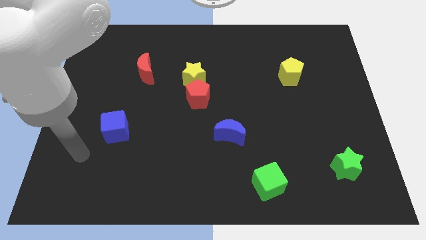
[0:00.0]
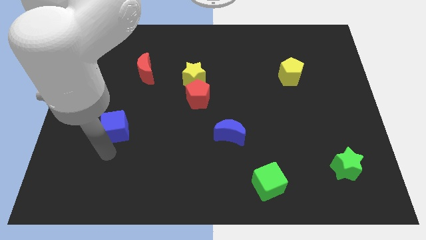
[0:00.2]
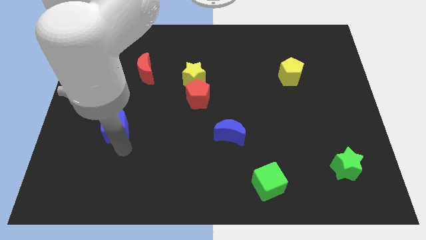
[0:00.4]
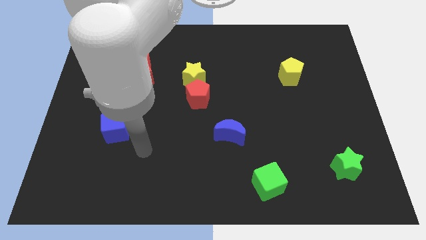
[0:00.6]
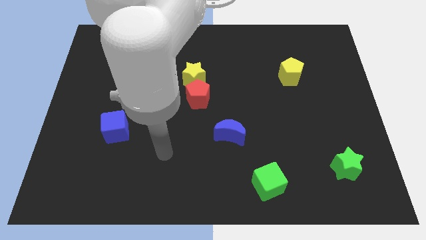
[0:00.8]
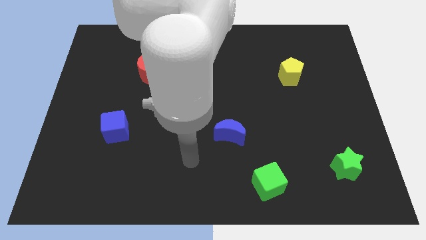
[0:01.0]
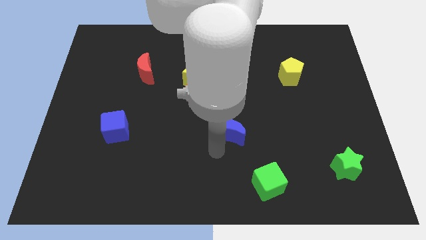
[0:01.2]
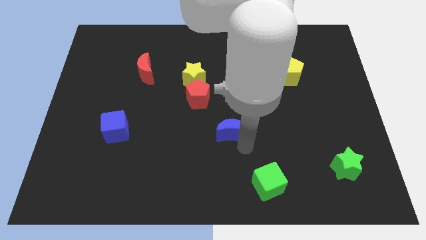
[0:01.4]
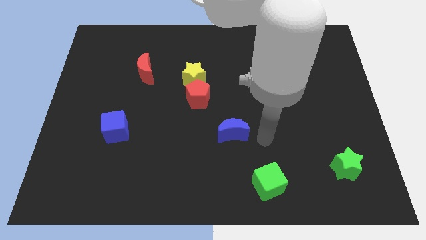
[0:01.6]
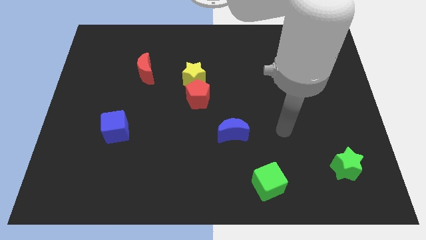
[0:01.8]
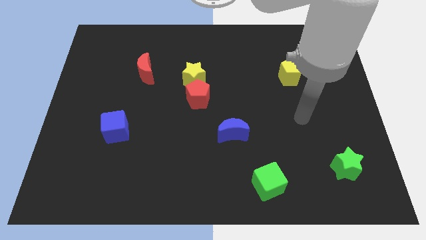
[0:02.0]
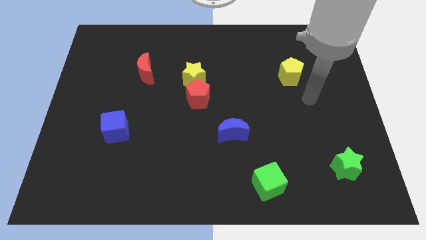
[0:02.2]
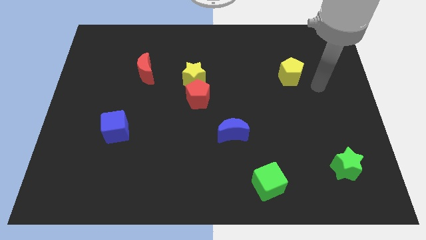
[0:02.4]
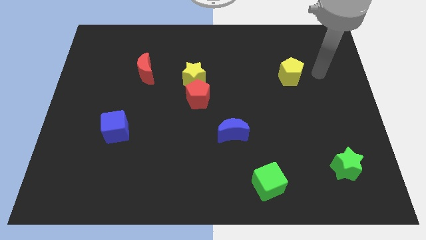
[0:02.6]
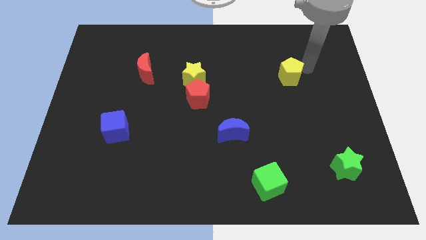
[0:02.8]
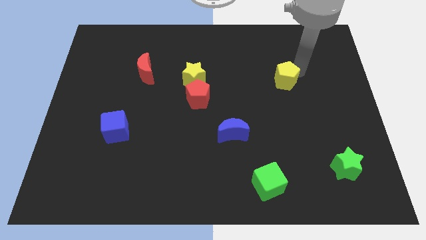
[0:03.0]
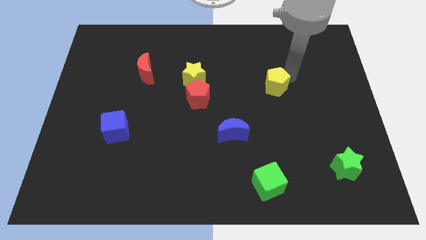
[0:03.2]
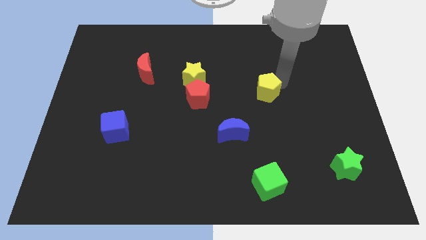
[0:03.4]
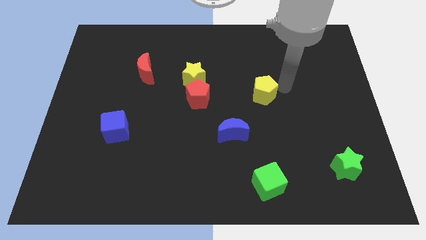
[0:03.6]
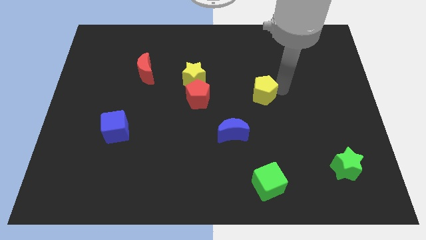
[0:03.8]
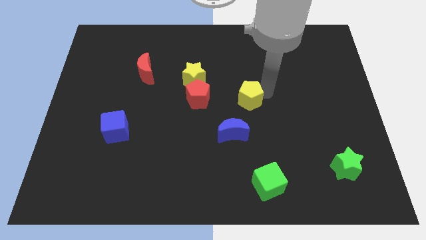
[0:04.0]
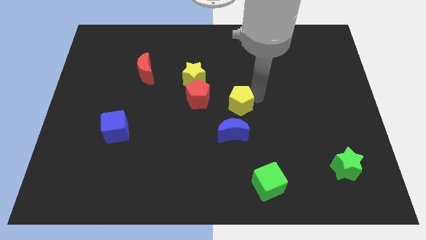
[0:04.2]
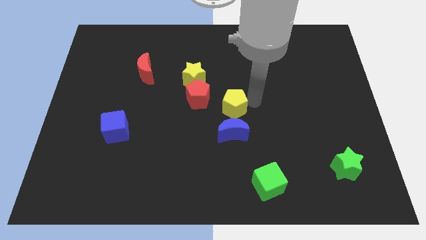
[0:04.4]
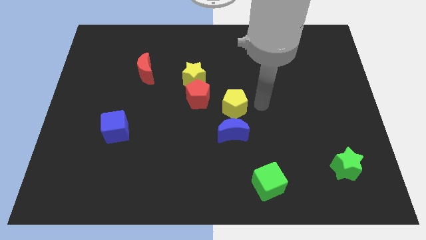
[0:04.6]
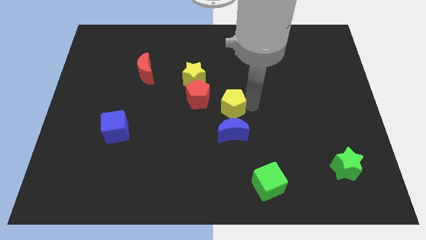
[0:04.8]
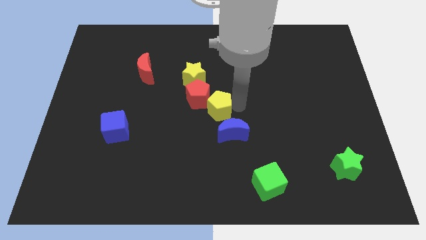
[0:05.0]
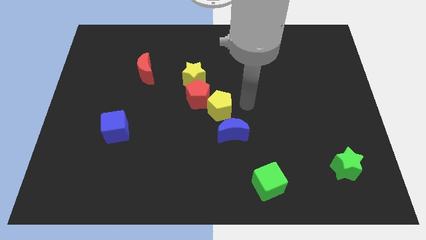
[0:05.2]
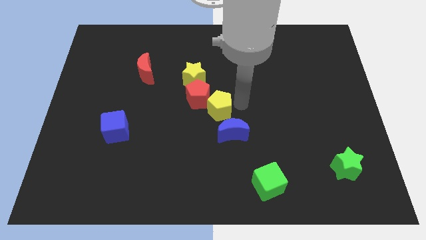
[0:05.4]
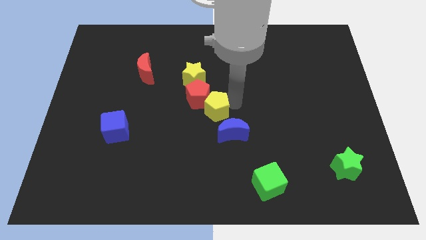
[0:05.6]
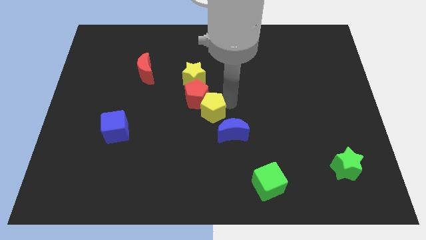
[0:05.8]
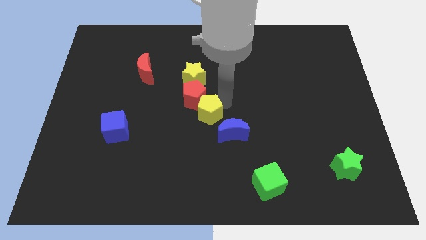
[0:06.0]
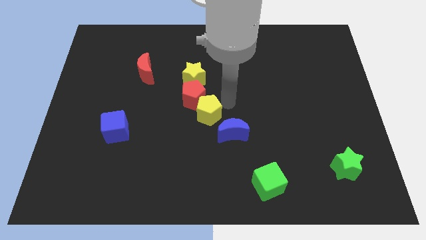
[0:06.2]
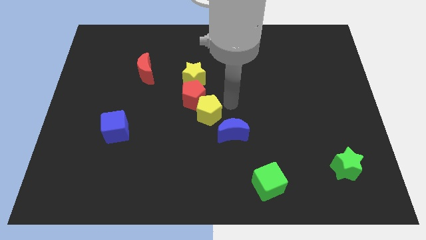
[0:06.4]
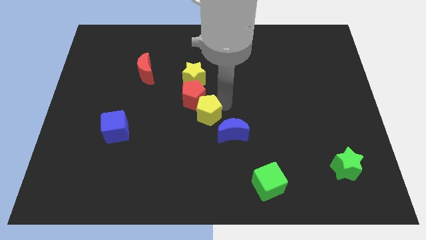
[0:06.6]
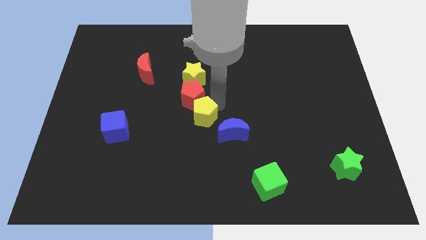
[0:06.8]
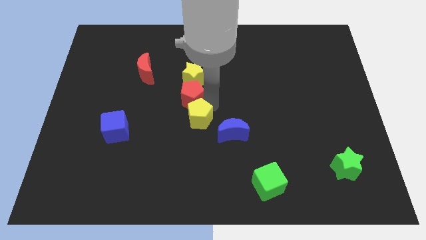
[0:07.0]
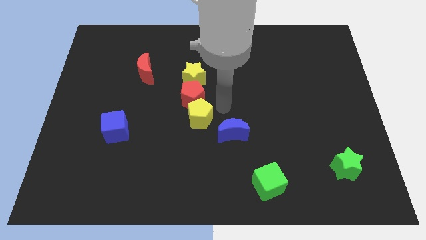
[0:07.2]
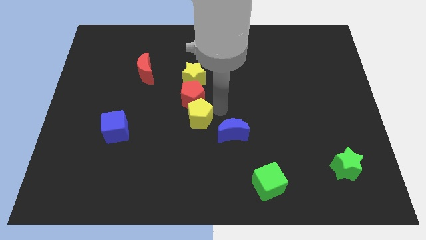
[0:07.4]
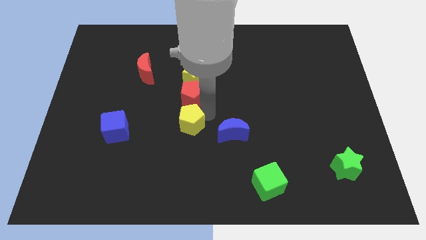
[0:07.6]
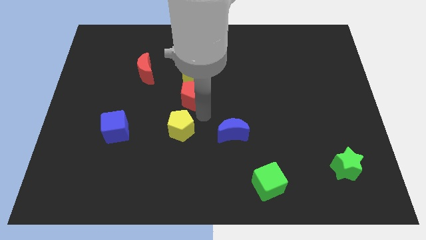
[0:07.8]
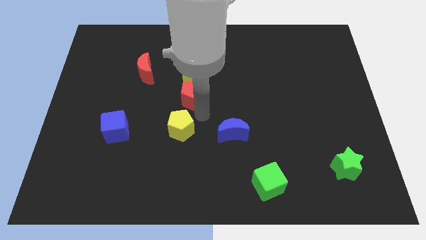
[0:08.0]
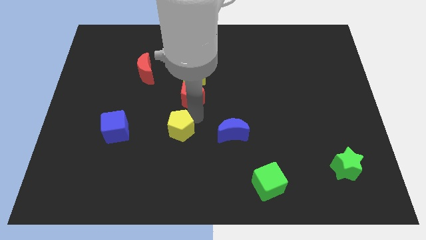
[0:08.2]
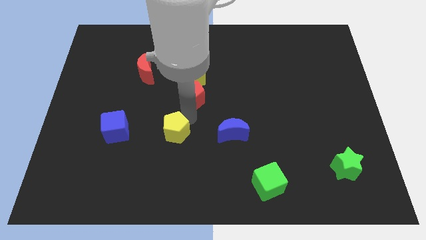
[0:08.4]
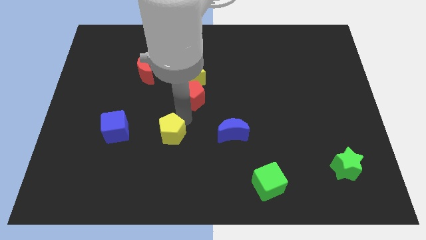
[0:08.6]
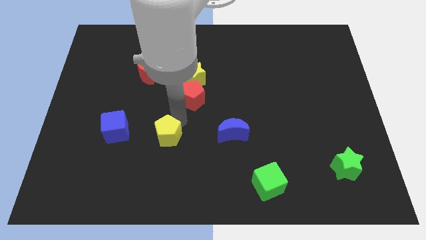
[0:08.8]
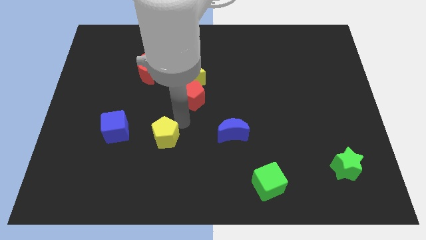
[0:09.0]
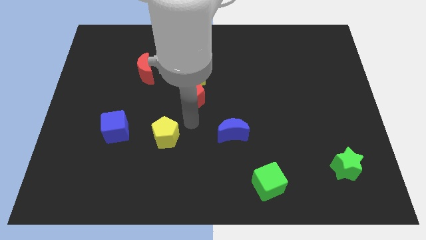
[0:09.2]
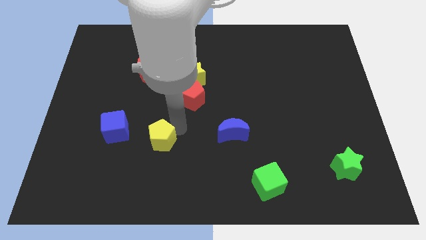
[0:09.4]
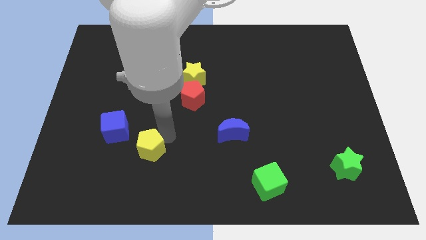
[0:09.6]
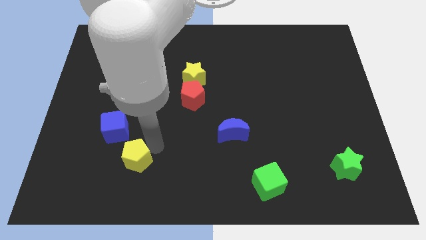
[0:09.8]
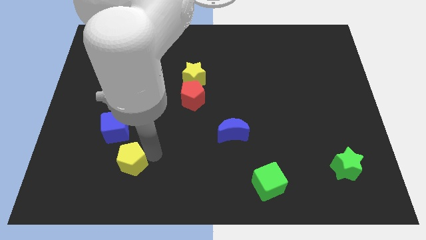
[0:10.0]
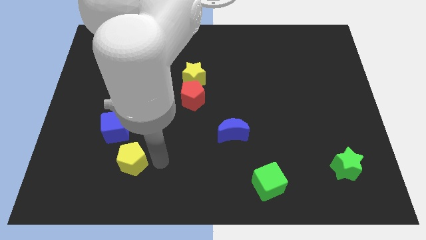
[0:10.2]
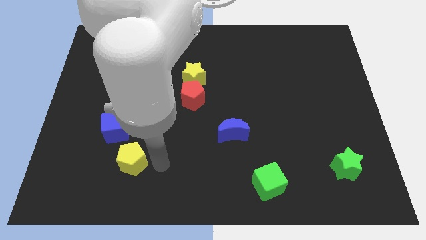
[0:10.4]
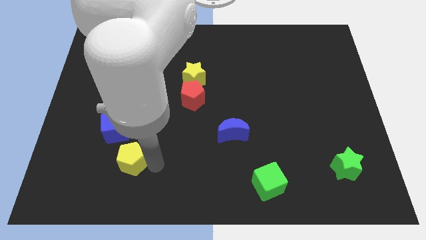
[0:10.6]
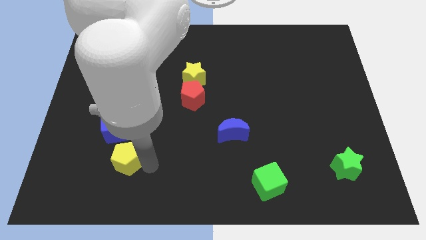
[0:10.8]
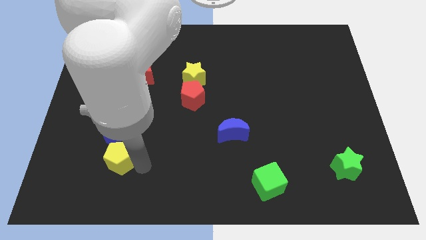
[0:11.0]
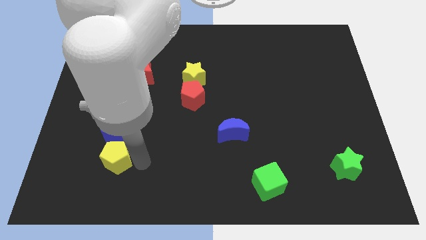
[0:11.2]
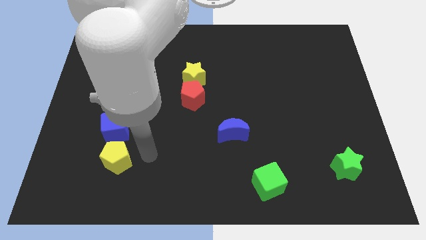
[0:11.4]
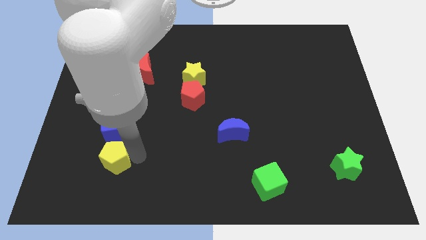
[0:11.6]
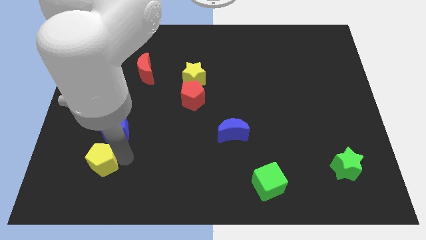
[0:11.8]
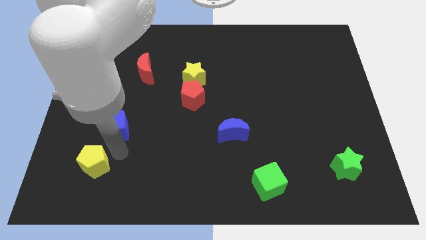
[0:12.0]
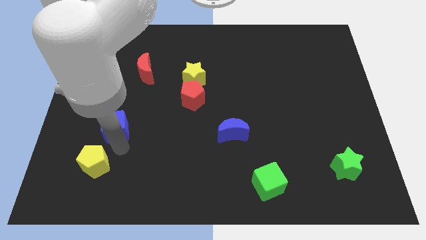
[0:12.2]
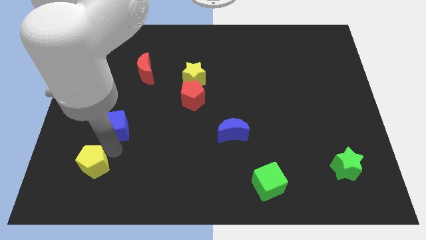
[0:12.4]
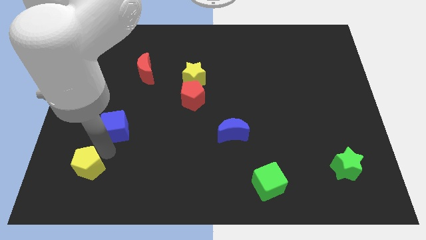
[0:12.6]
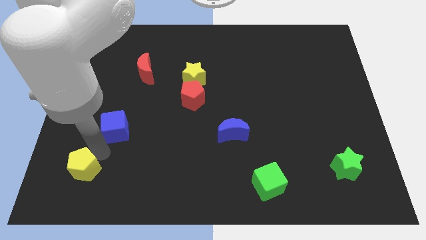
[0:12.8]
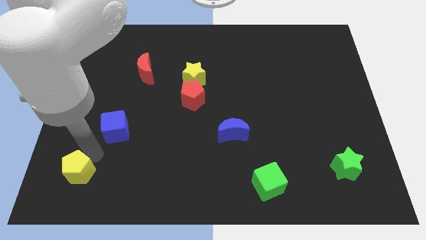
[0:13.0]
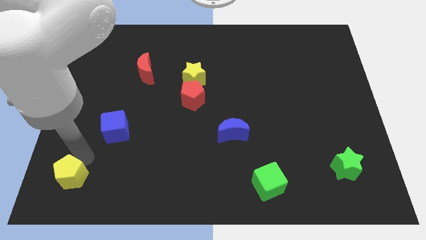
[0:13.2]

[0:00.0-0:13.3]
slide the yellow pentagon to the bottom left of the board
